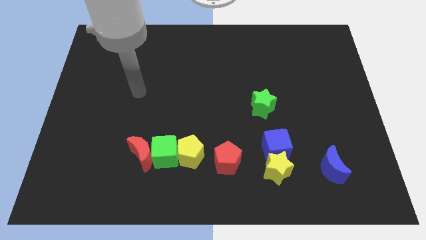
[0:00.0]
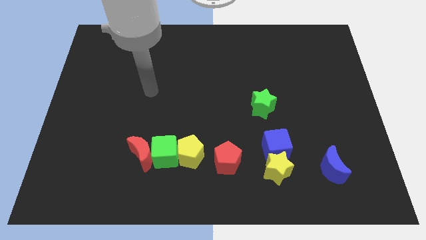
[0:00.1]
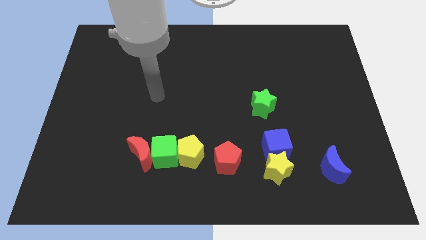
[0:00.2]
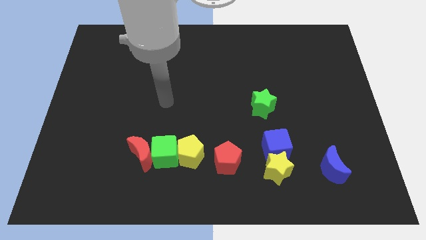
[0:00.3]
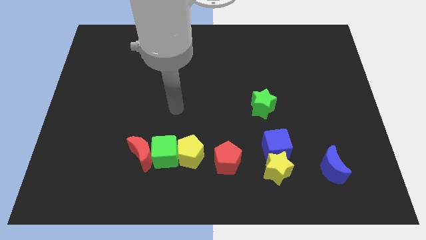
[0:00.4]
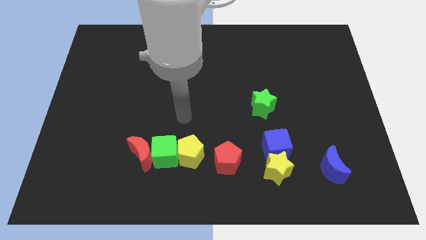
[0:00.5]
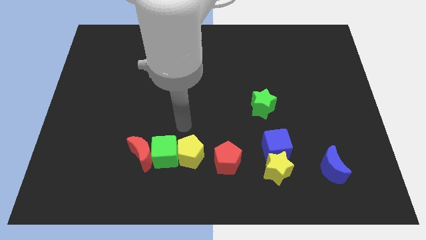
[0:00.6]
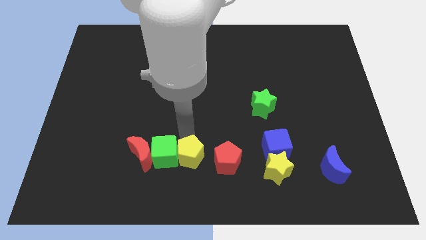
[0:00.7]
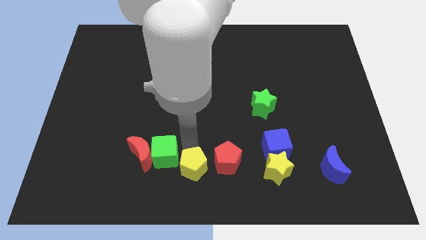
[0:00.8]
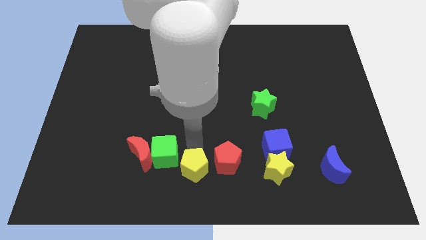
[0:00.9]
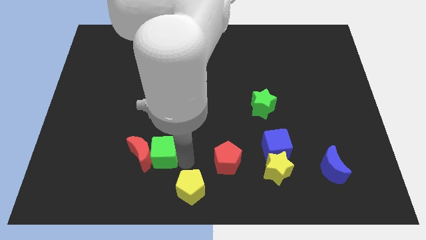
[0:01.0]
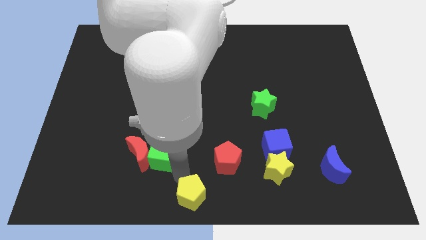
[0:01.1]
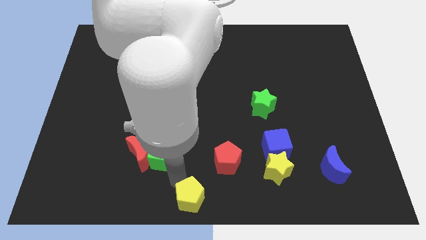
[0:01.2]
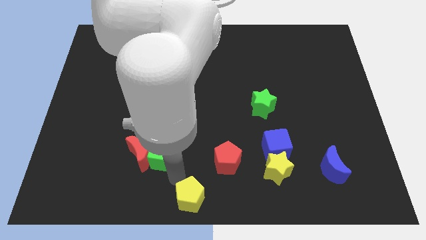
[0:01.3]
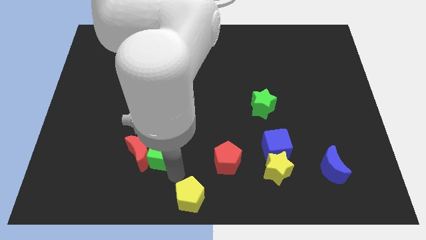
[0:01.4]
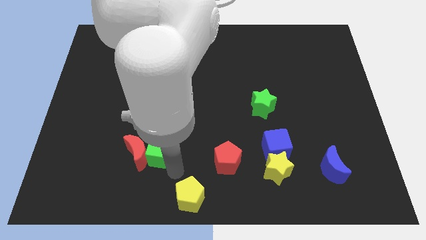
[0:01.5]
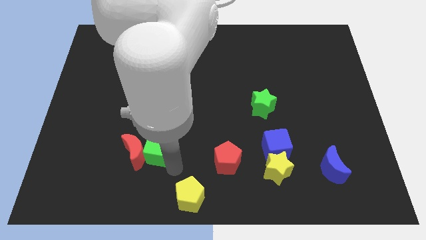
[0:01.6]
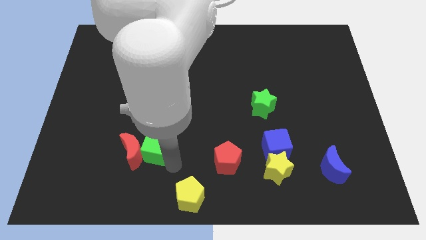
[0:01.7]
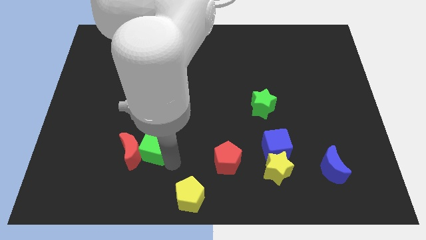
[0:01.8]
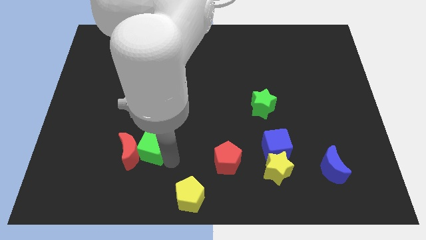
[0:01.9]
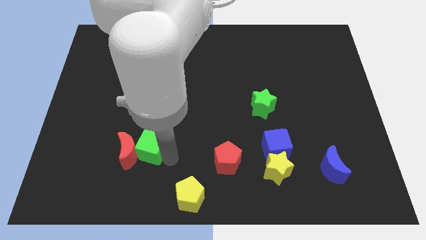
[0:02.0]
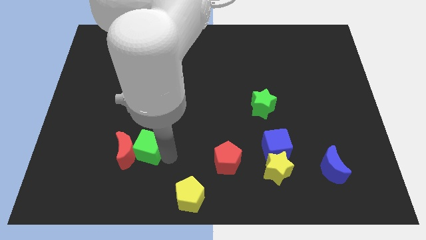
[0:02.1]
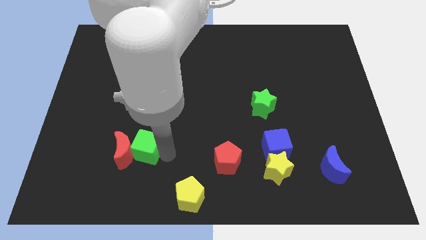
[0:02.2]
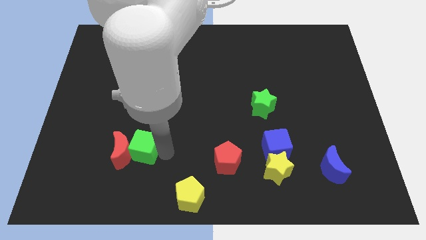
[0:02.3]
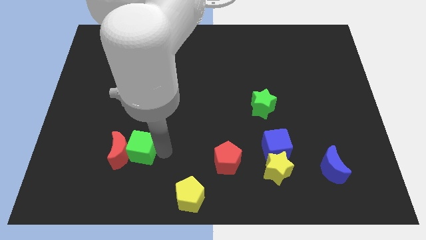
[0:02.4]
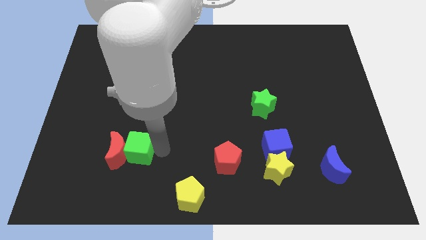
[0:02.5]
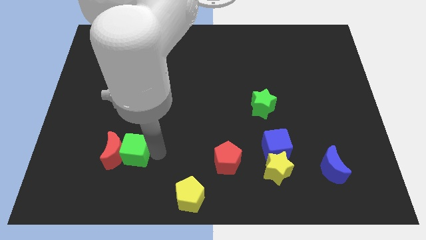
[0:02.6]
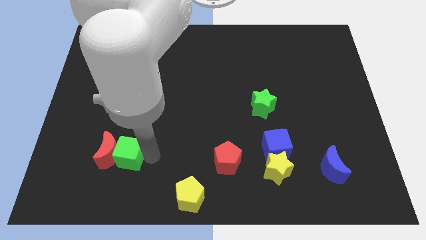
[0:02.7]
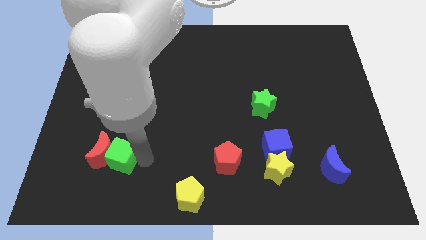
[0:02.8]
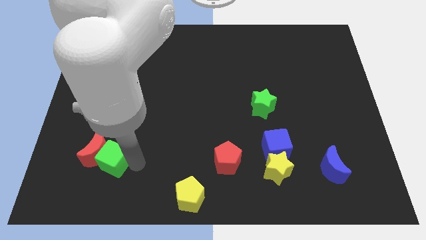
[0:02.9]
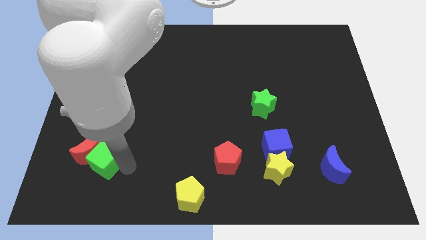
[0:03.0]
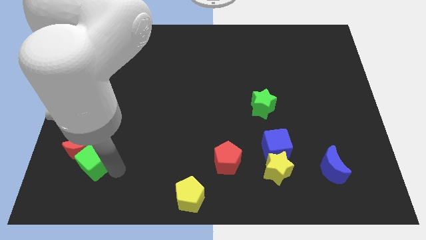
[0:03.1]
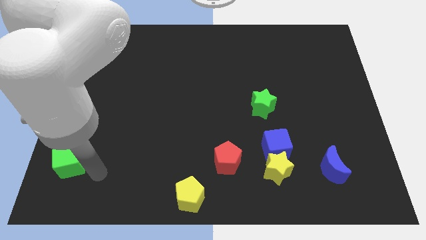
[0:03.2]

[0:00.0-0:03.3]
pull the green cube apart from the red moon and yellow pentagon

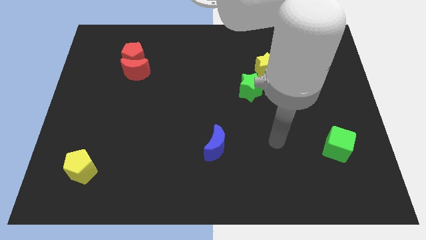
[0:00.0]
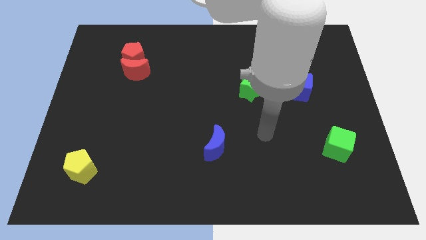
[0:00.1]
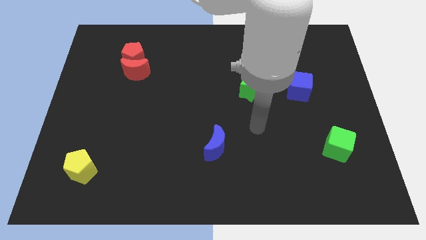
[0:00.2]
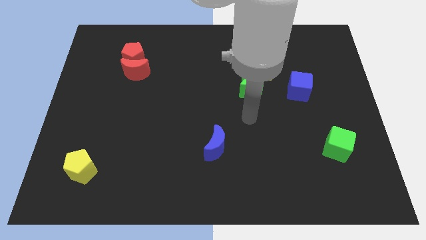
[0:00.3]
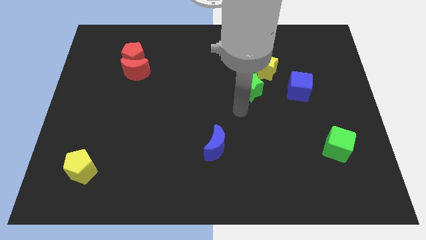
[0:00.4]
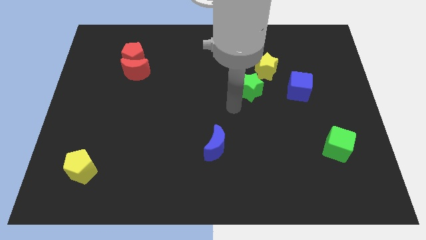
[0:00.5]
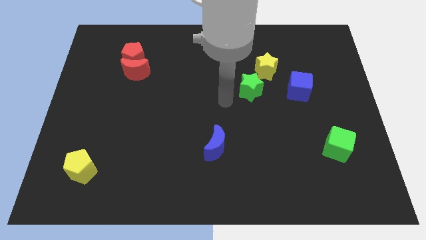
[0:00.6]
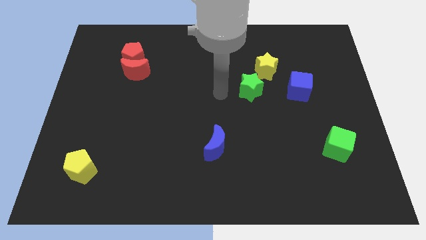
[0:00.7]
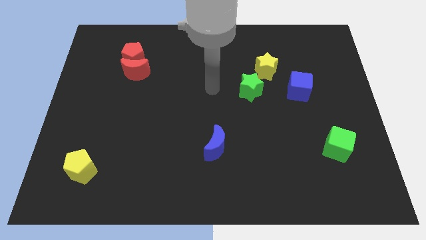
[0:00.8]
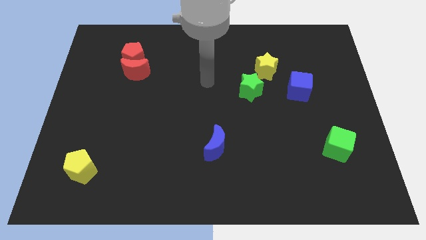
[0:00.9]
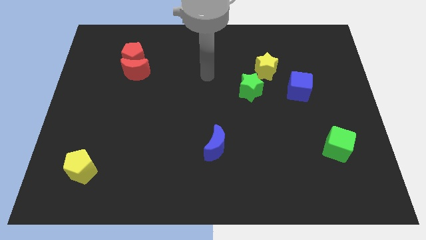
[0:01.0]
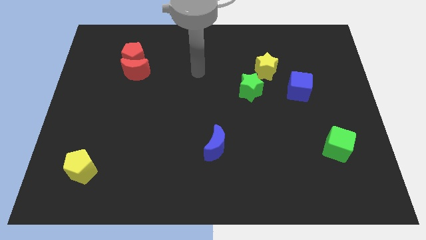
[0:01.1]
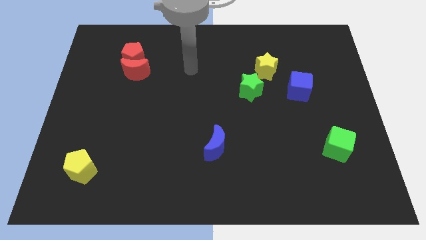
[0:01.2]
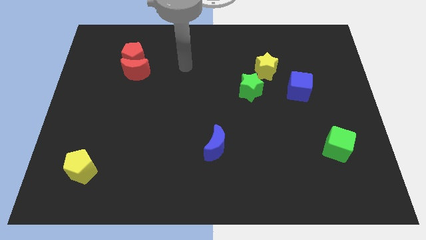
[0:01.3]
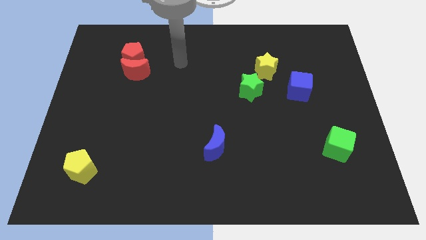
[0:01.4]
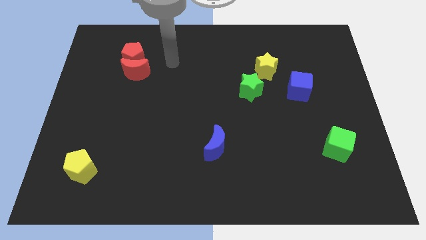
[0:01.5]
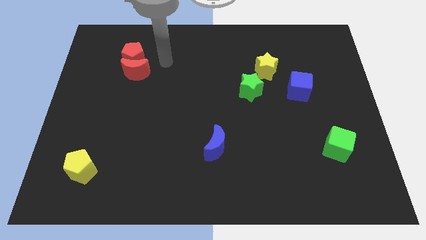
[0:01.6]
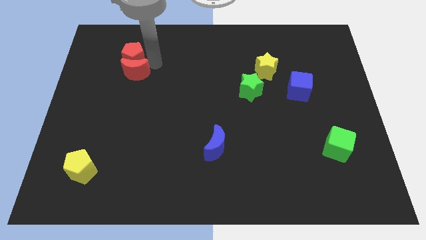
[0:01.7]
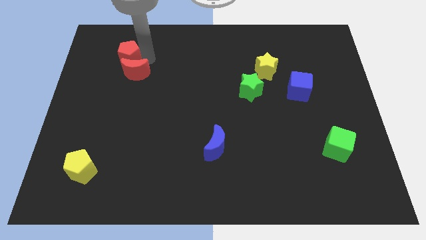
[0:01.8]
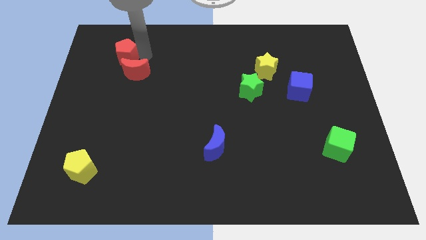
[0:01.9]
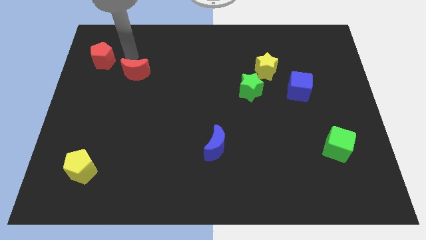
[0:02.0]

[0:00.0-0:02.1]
move the red moon away from the red pentagon

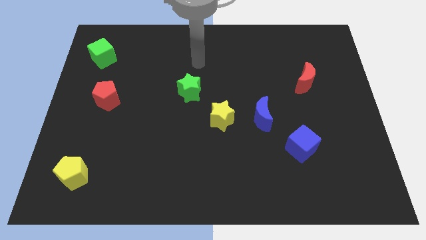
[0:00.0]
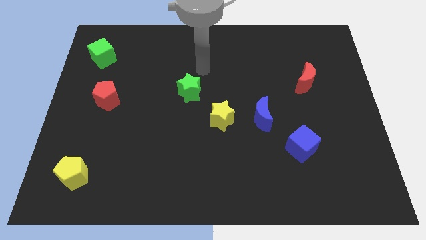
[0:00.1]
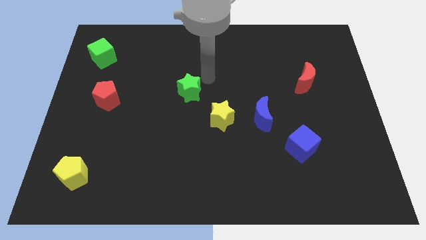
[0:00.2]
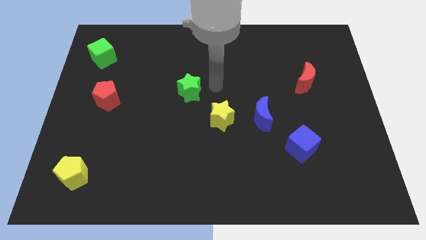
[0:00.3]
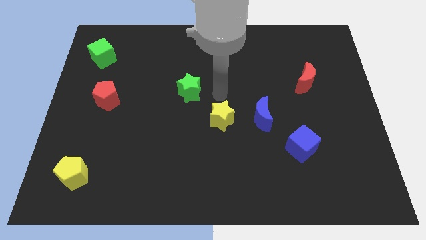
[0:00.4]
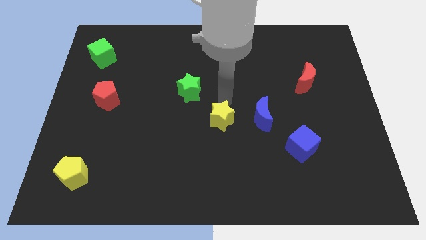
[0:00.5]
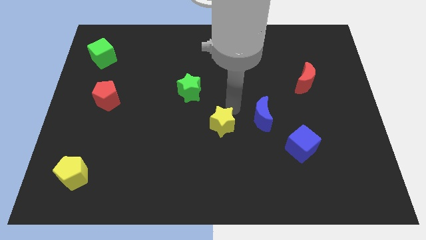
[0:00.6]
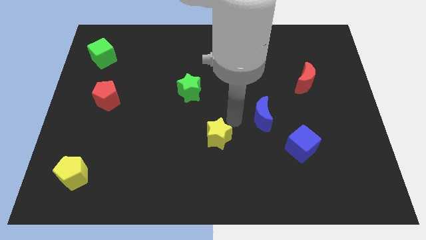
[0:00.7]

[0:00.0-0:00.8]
pull the blue moon apart from the yellow star

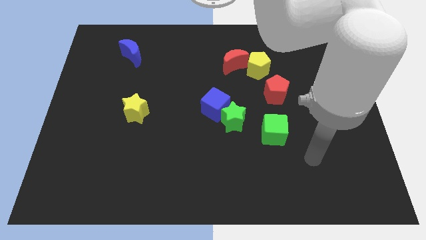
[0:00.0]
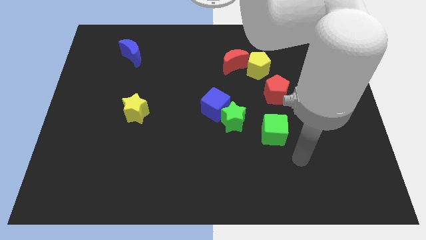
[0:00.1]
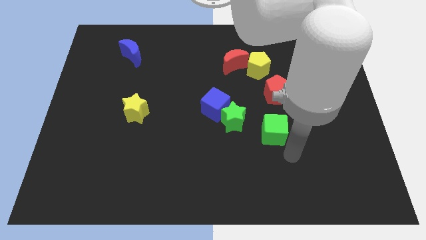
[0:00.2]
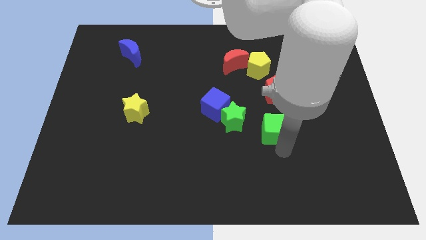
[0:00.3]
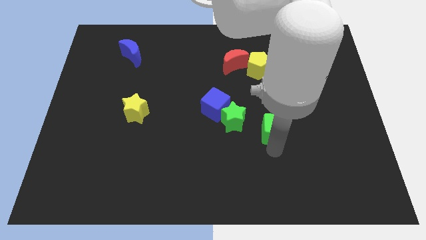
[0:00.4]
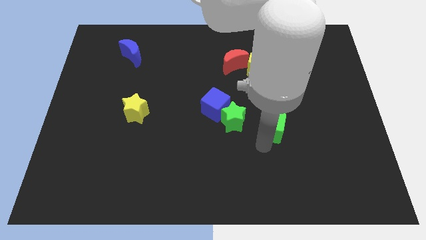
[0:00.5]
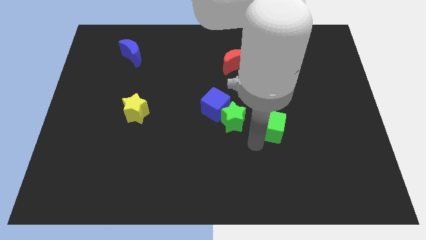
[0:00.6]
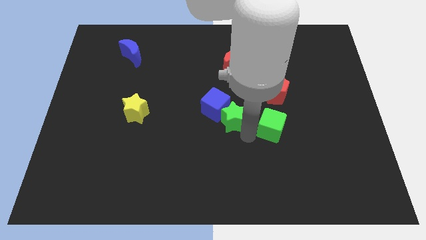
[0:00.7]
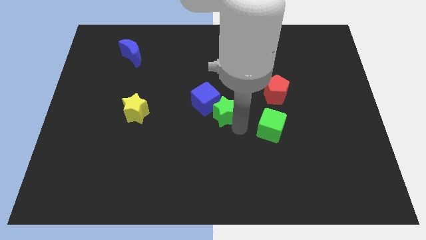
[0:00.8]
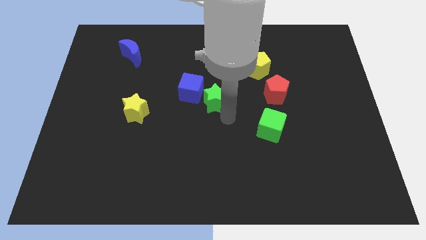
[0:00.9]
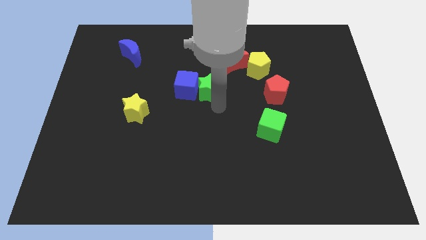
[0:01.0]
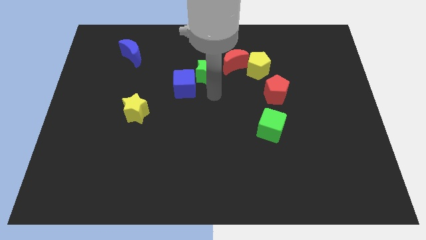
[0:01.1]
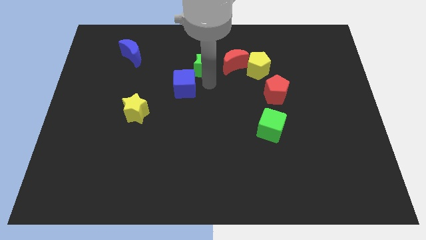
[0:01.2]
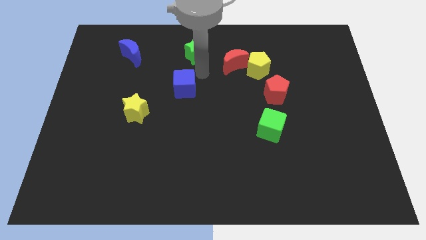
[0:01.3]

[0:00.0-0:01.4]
pull the blue cube apart from the green star

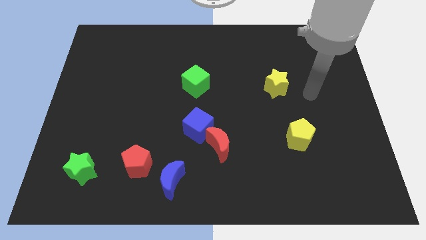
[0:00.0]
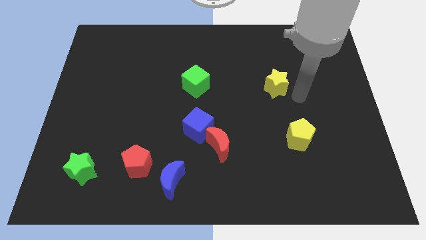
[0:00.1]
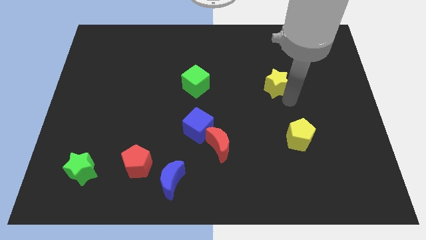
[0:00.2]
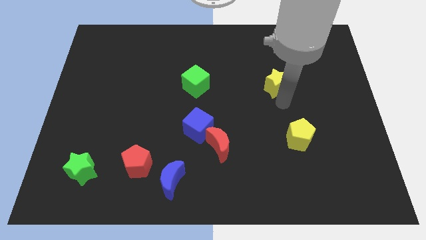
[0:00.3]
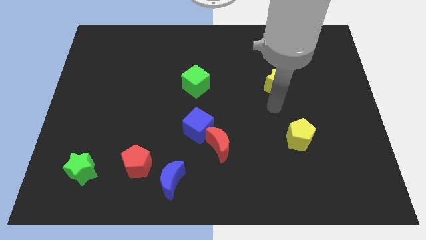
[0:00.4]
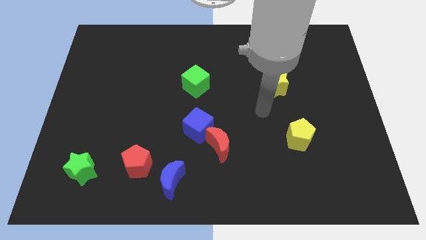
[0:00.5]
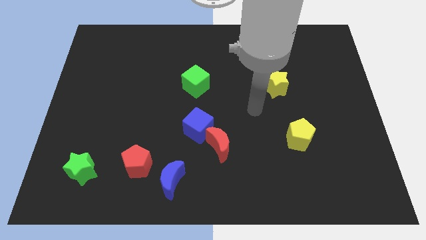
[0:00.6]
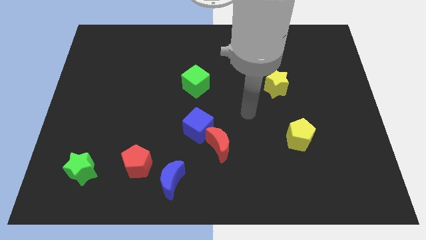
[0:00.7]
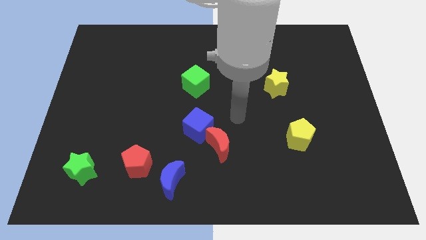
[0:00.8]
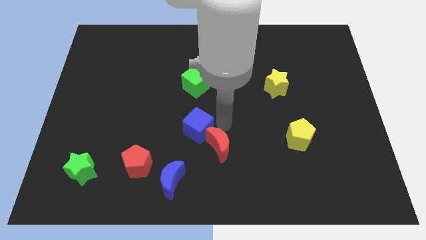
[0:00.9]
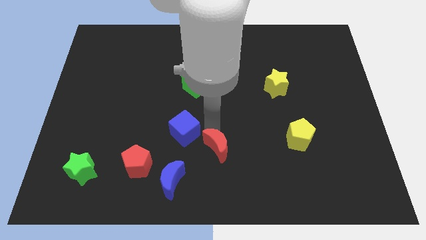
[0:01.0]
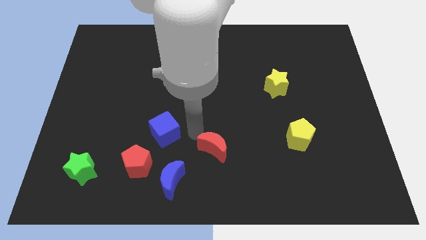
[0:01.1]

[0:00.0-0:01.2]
move the red moon away from the blue cube

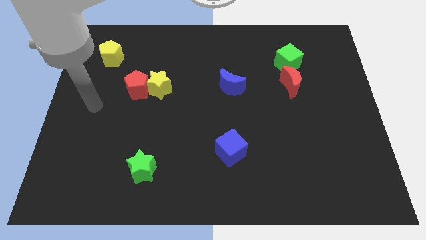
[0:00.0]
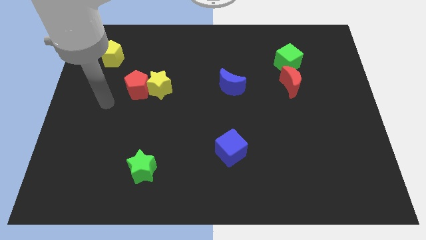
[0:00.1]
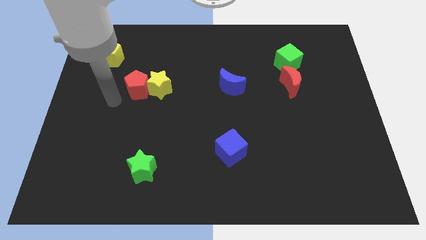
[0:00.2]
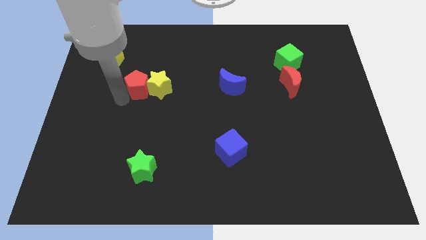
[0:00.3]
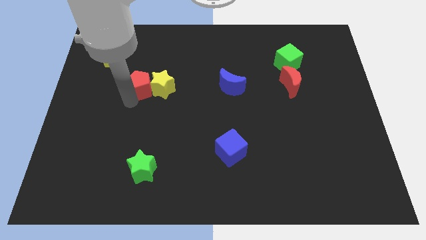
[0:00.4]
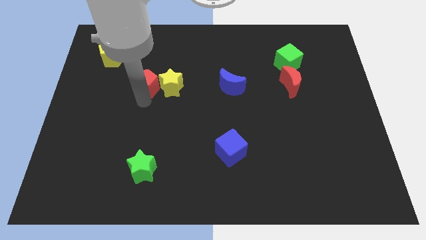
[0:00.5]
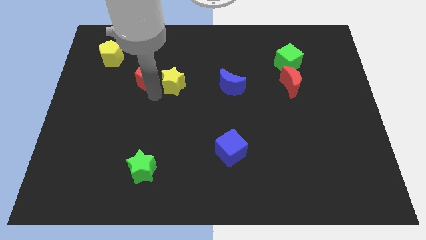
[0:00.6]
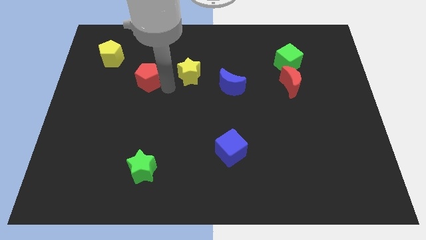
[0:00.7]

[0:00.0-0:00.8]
move the red pentagon away from the yellow star
